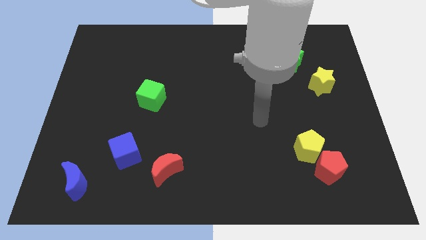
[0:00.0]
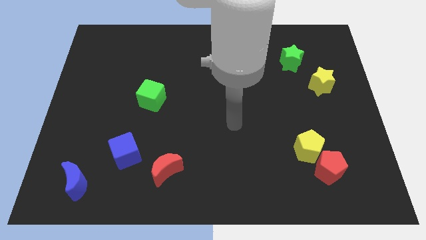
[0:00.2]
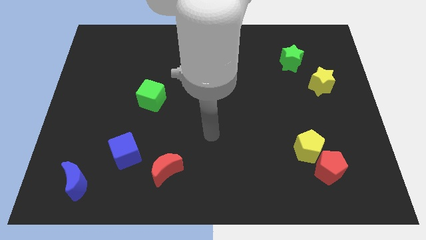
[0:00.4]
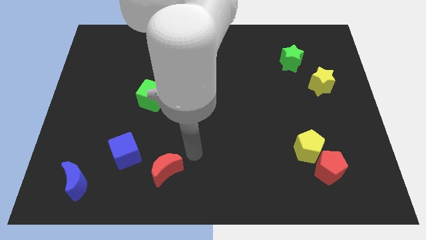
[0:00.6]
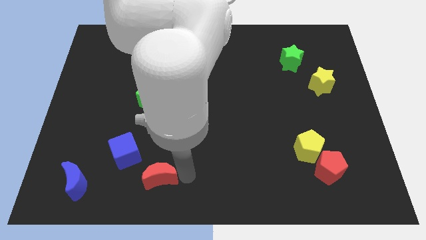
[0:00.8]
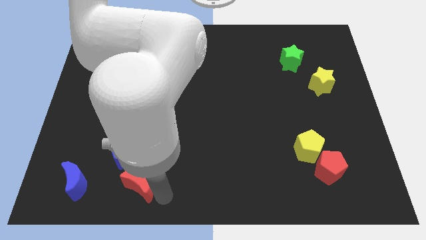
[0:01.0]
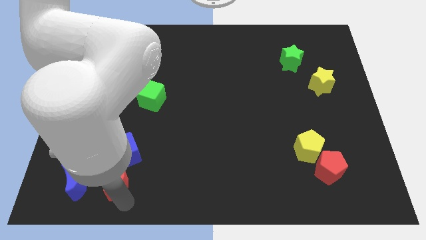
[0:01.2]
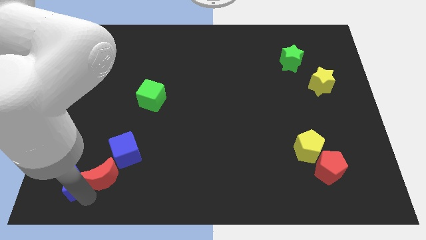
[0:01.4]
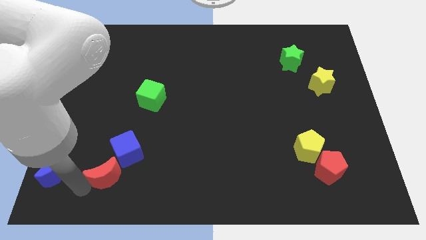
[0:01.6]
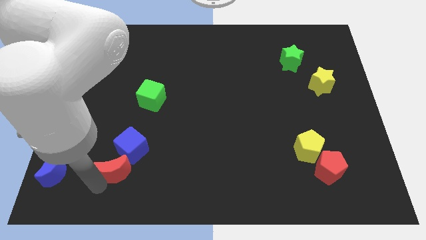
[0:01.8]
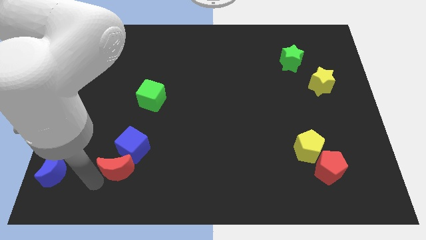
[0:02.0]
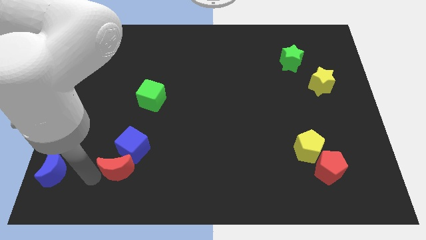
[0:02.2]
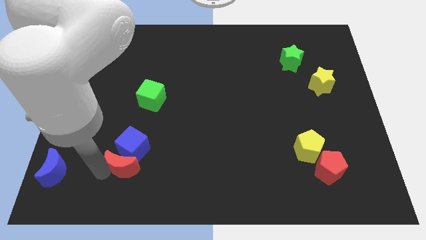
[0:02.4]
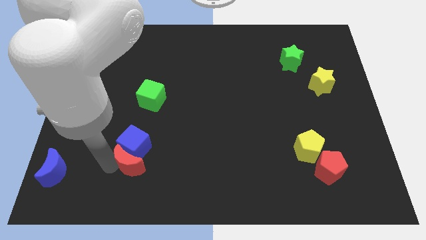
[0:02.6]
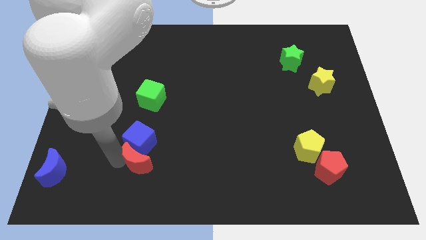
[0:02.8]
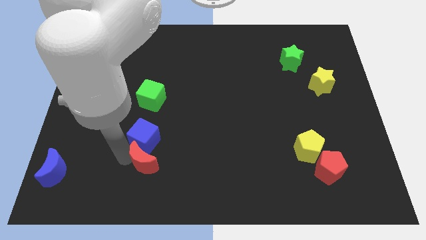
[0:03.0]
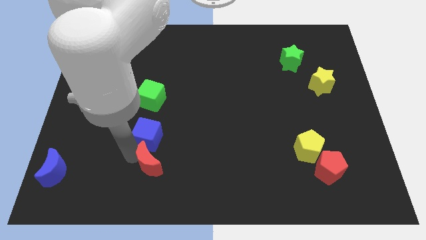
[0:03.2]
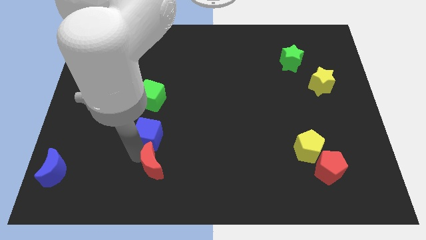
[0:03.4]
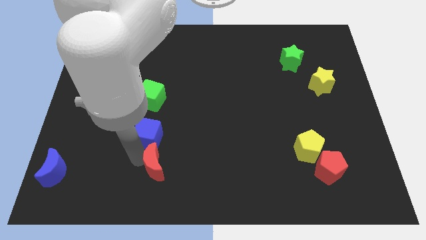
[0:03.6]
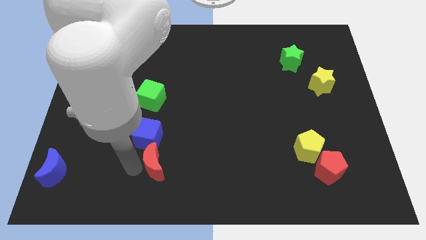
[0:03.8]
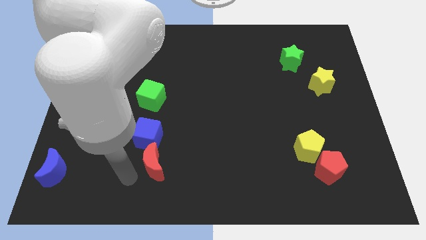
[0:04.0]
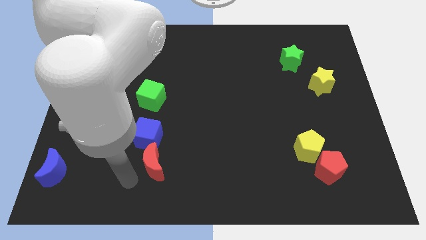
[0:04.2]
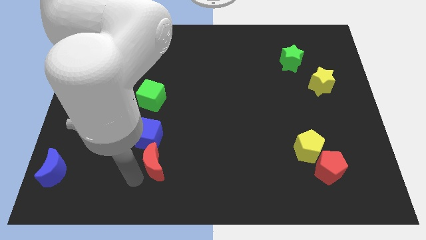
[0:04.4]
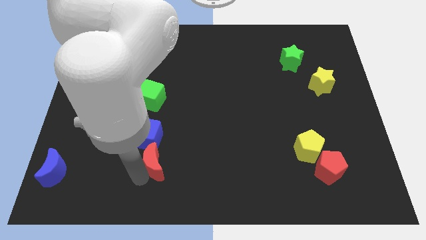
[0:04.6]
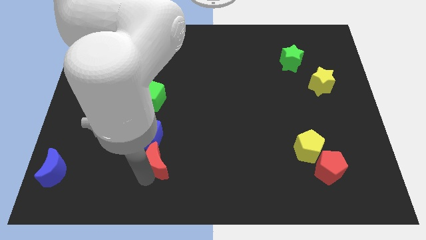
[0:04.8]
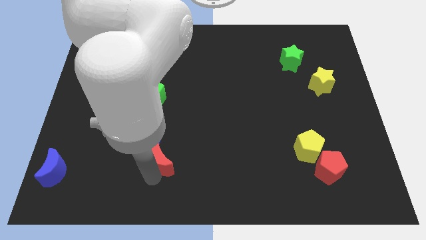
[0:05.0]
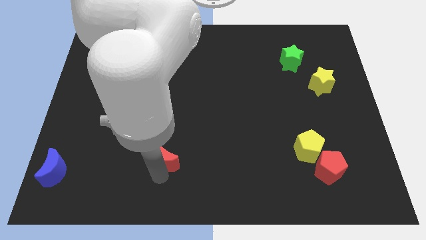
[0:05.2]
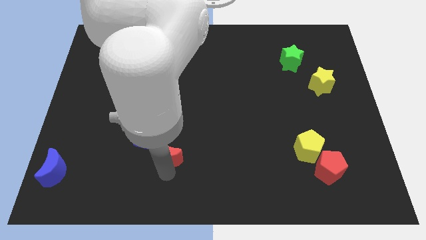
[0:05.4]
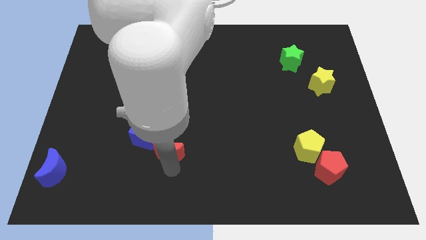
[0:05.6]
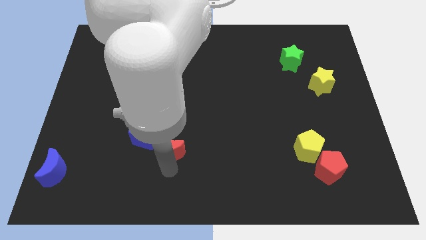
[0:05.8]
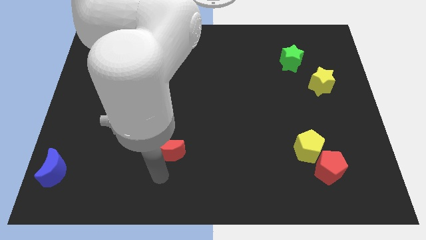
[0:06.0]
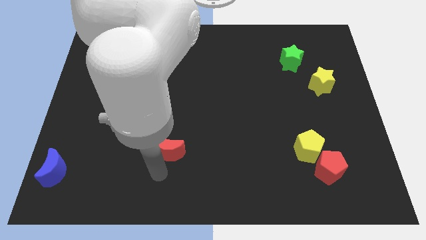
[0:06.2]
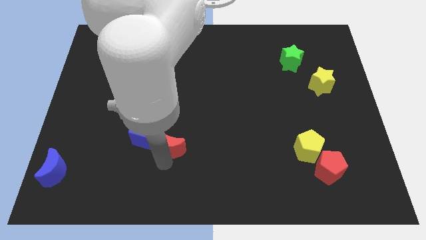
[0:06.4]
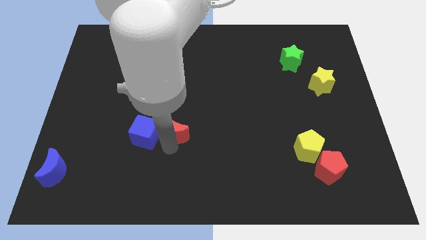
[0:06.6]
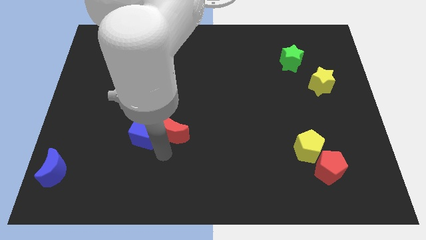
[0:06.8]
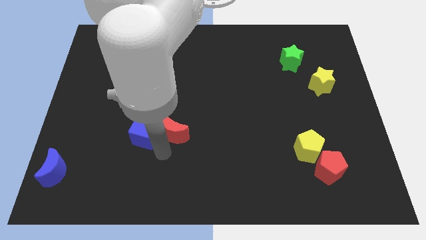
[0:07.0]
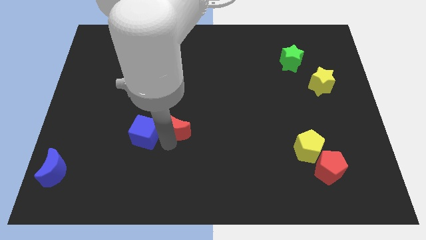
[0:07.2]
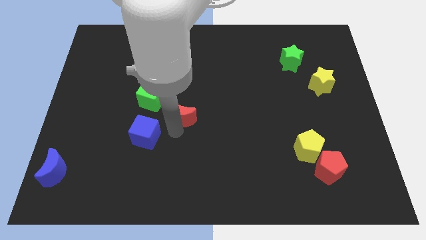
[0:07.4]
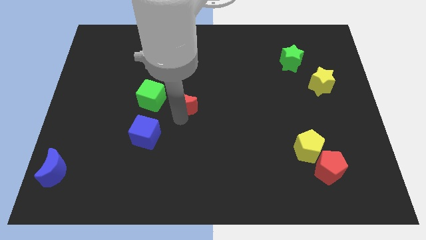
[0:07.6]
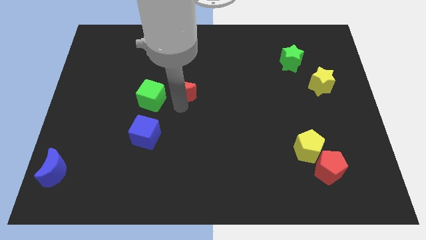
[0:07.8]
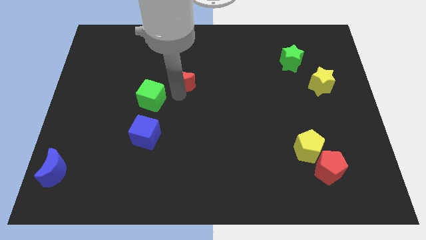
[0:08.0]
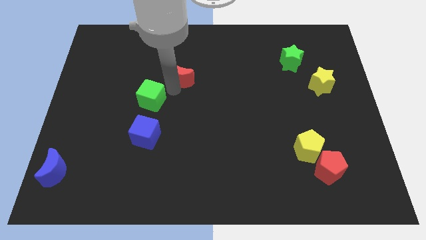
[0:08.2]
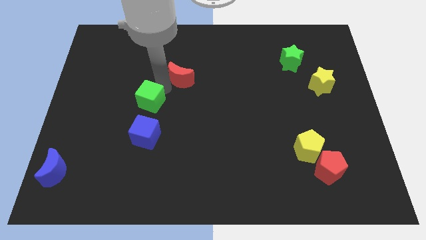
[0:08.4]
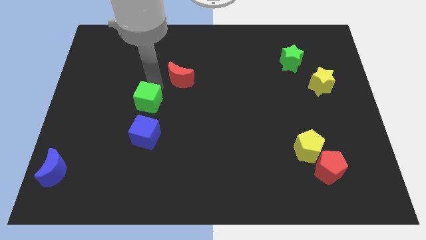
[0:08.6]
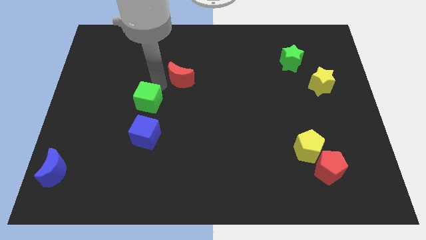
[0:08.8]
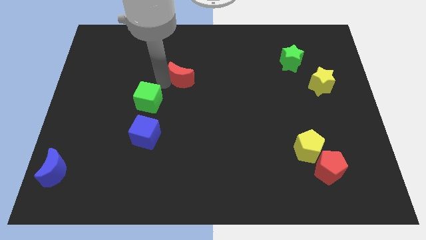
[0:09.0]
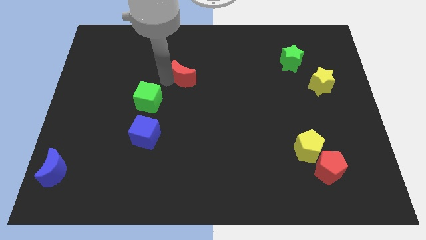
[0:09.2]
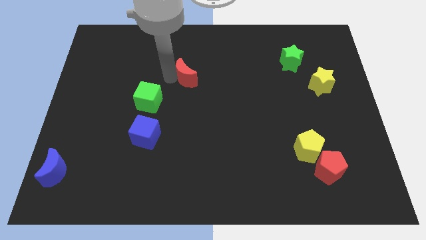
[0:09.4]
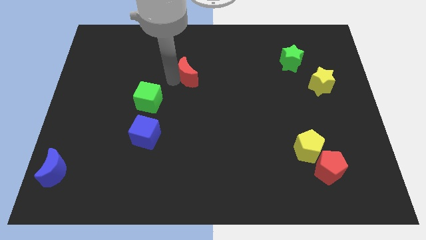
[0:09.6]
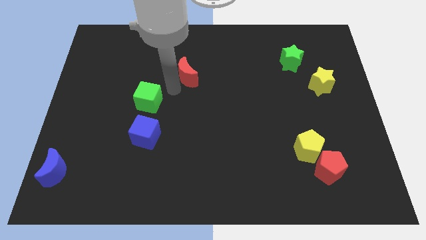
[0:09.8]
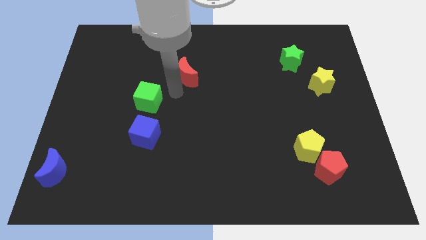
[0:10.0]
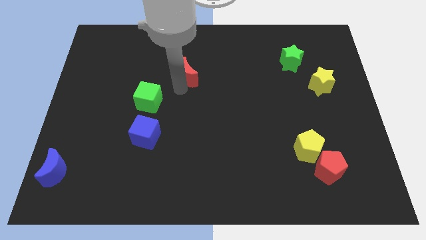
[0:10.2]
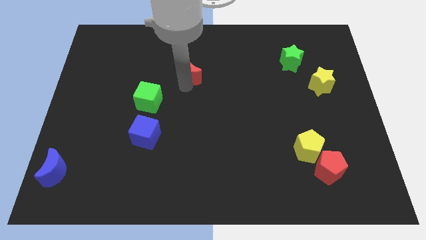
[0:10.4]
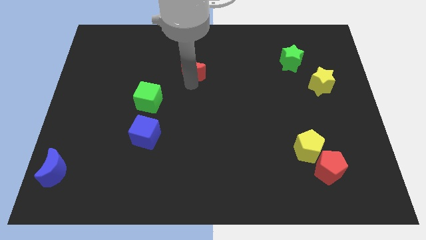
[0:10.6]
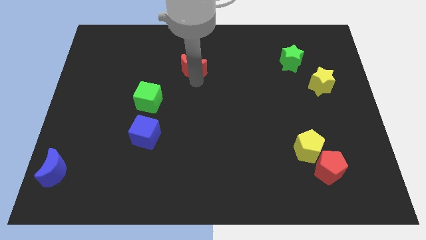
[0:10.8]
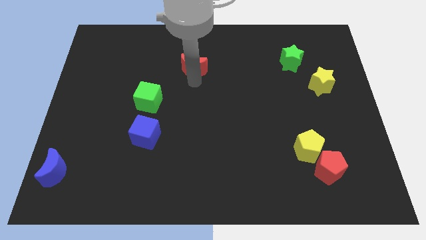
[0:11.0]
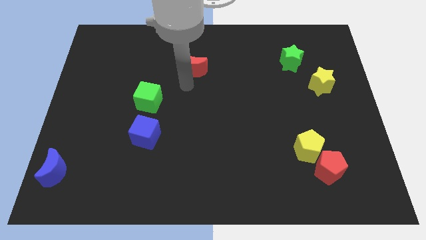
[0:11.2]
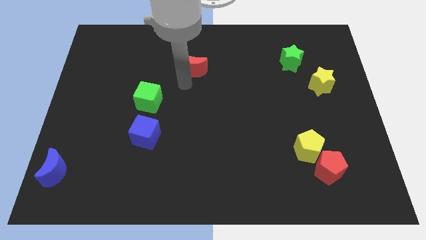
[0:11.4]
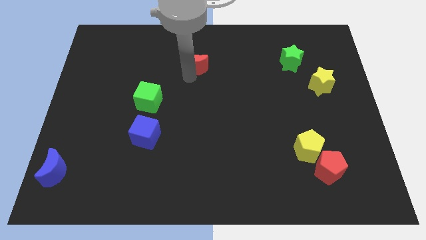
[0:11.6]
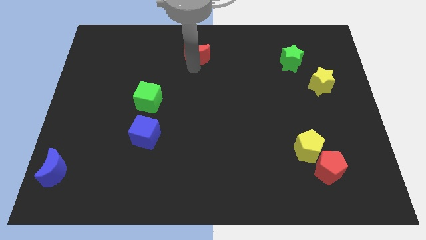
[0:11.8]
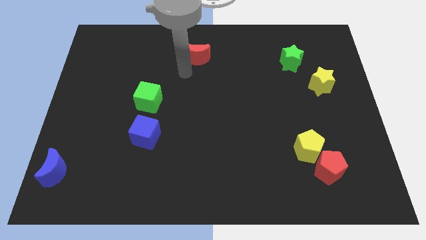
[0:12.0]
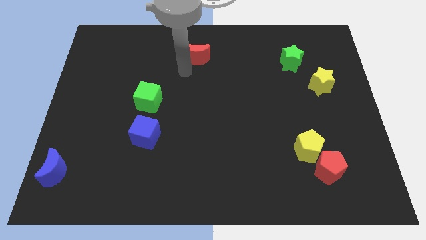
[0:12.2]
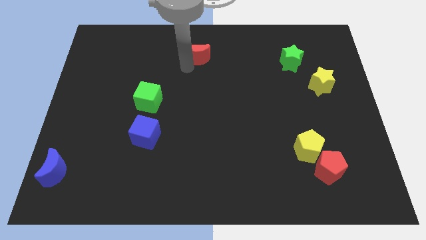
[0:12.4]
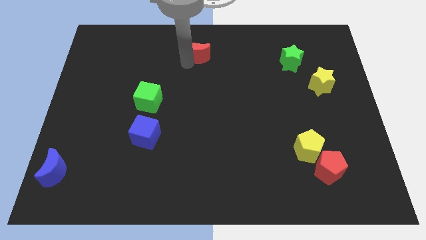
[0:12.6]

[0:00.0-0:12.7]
slide the red moon to the towards your base

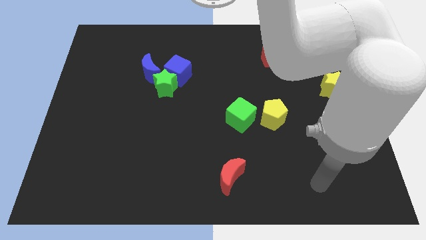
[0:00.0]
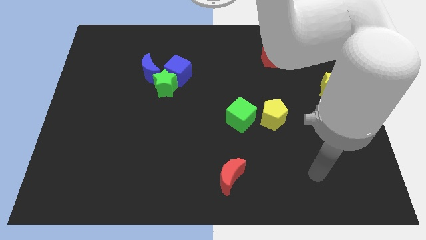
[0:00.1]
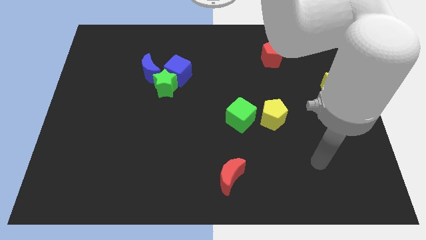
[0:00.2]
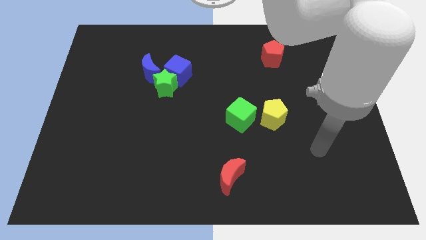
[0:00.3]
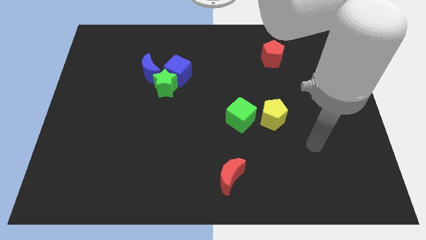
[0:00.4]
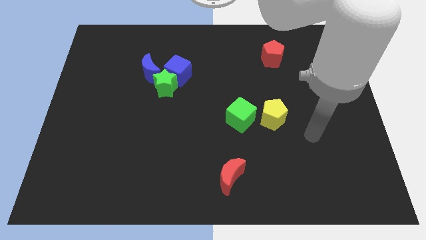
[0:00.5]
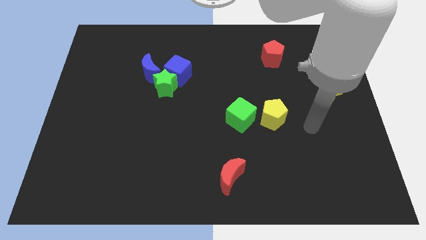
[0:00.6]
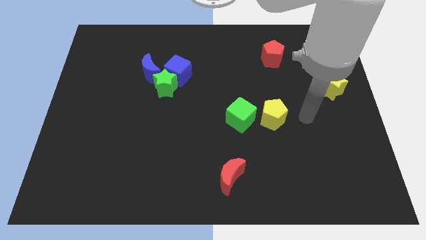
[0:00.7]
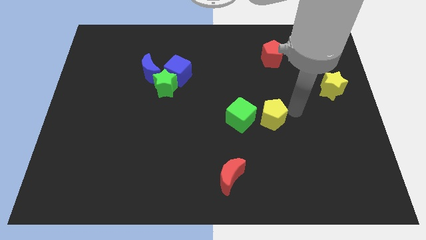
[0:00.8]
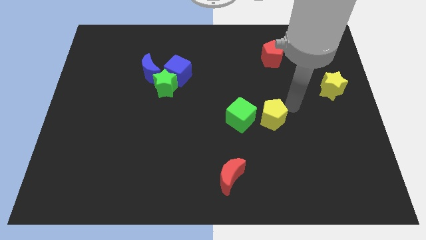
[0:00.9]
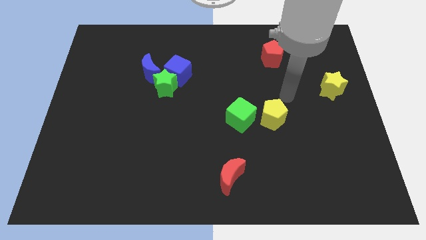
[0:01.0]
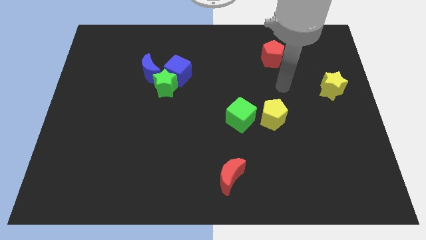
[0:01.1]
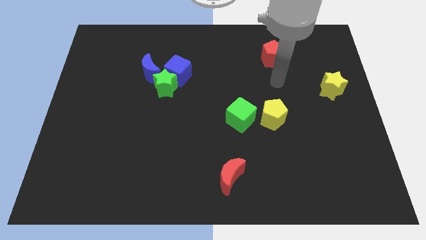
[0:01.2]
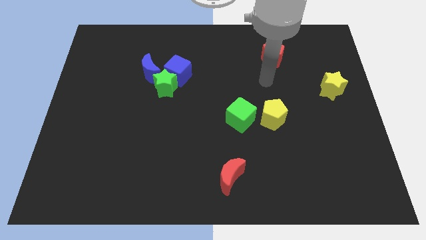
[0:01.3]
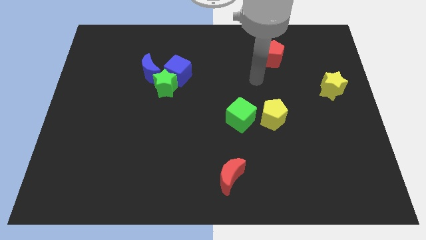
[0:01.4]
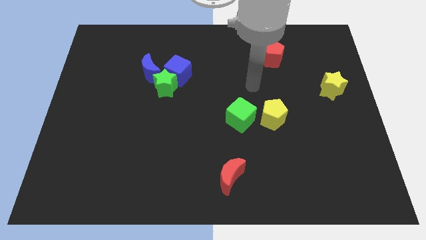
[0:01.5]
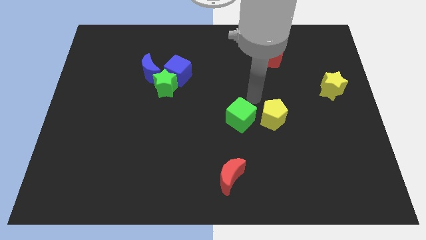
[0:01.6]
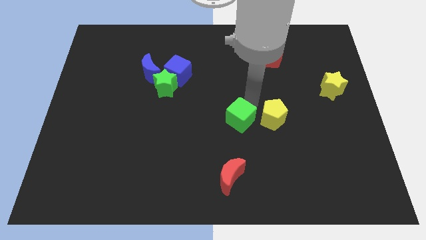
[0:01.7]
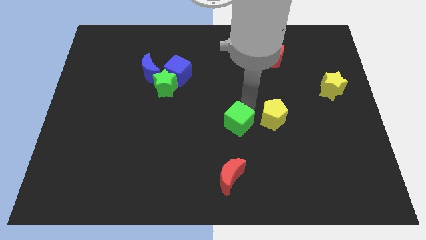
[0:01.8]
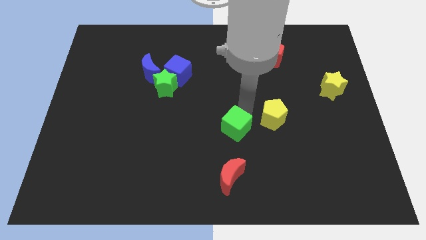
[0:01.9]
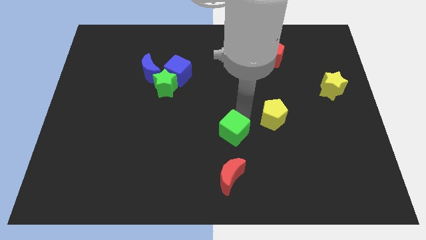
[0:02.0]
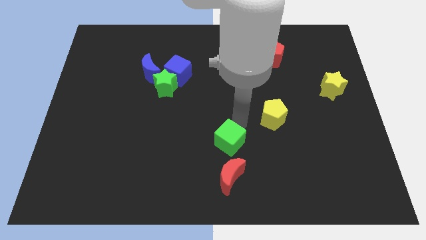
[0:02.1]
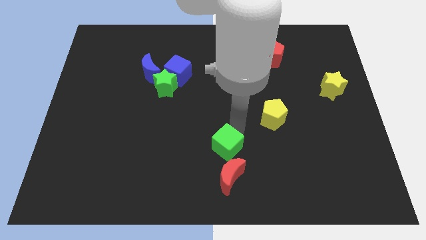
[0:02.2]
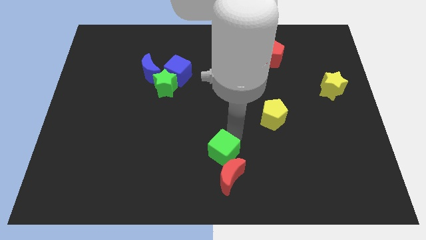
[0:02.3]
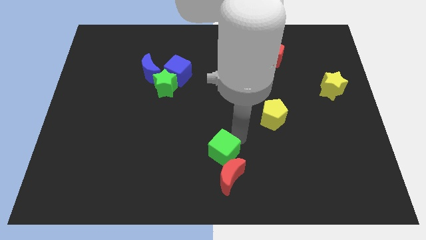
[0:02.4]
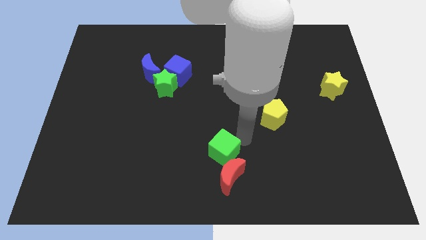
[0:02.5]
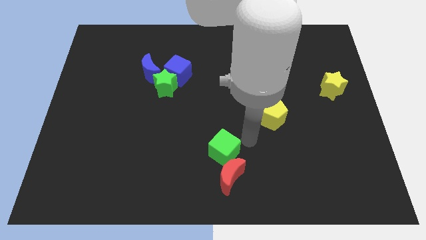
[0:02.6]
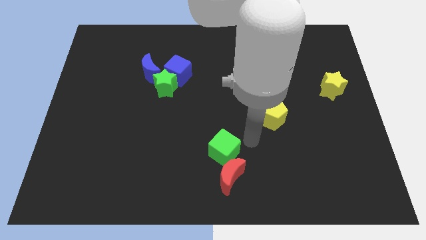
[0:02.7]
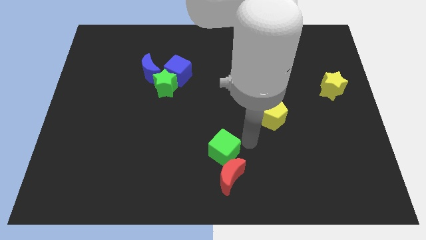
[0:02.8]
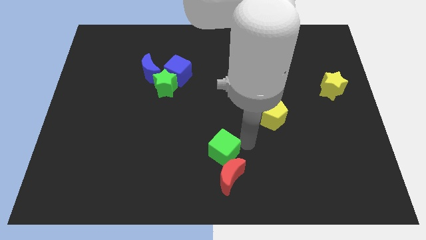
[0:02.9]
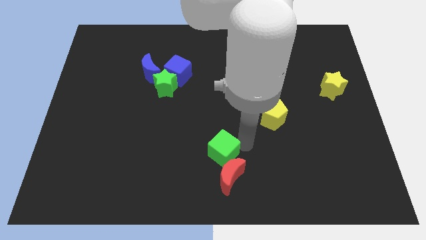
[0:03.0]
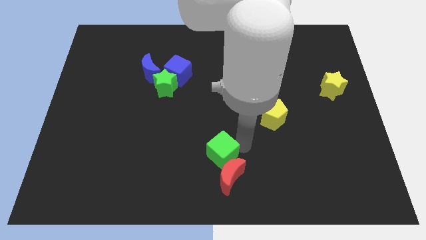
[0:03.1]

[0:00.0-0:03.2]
put the green cube to the bottom side
